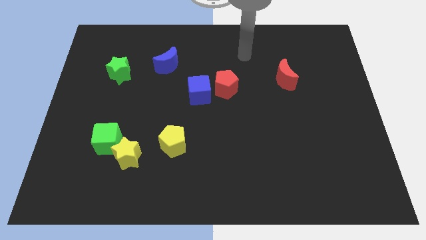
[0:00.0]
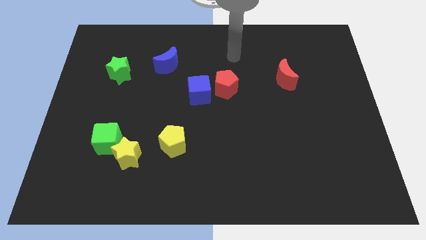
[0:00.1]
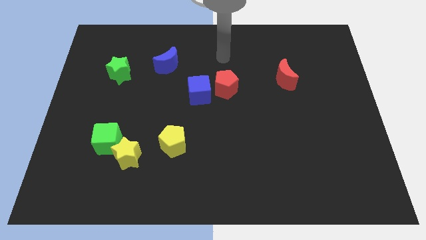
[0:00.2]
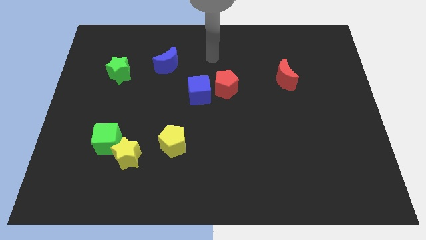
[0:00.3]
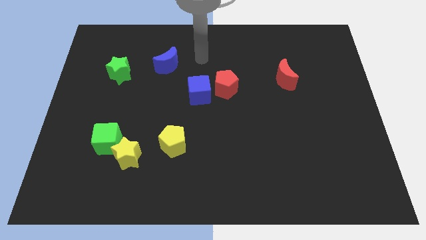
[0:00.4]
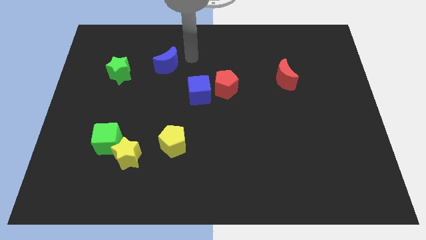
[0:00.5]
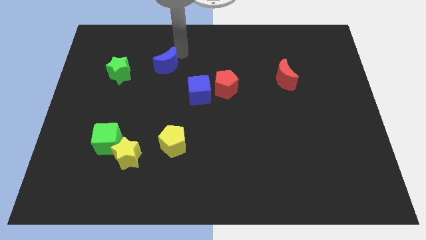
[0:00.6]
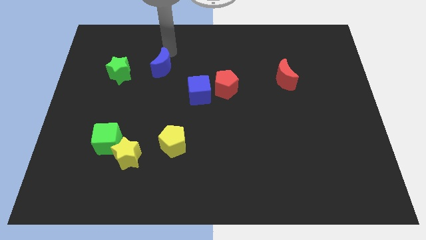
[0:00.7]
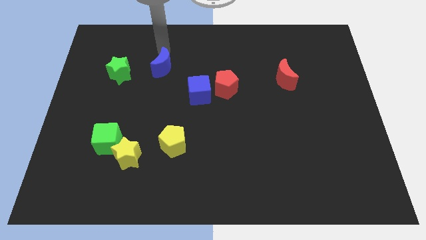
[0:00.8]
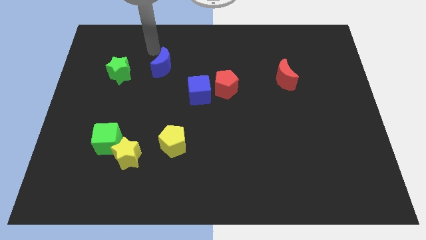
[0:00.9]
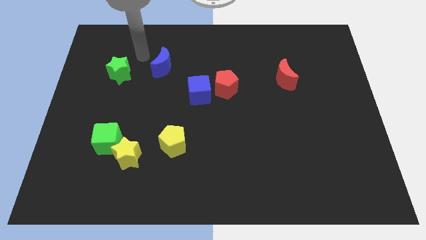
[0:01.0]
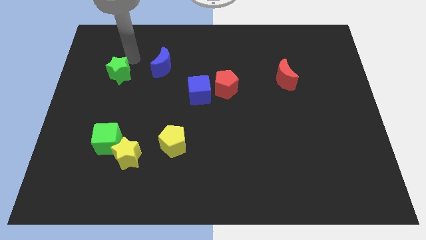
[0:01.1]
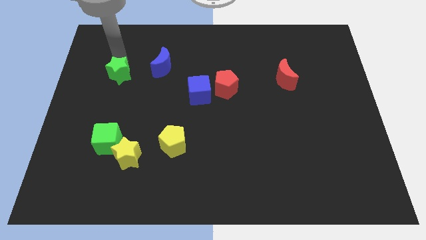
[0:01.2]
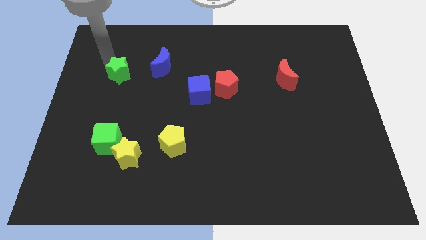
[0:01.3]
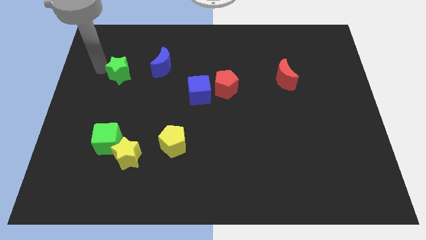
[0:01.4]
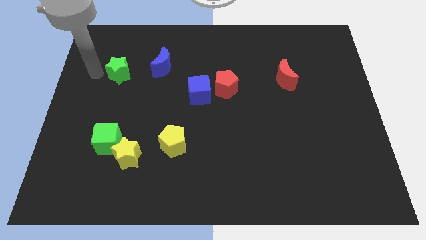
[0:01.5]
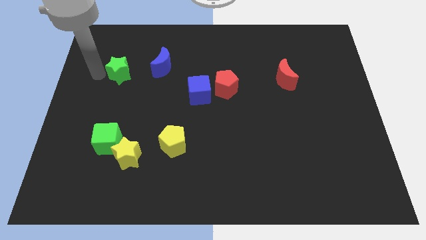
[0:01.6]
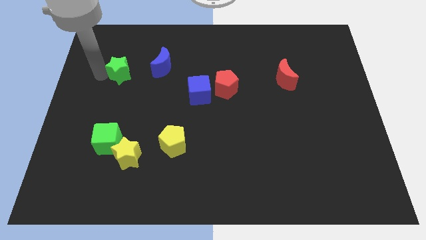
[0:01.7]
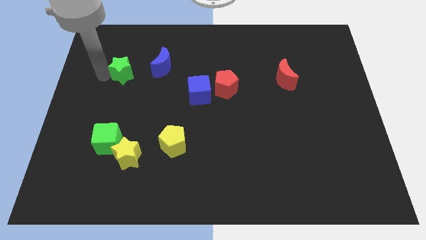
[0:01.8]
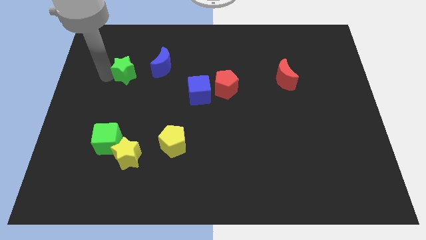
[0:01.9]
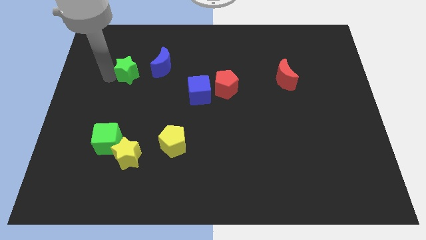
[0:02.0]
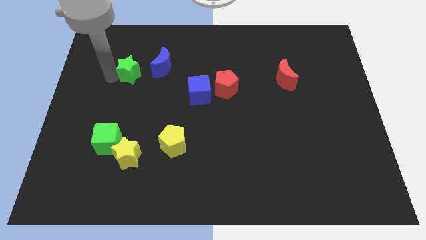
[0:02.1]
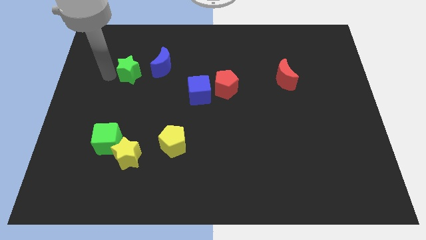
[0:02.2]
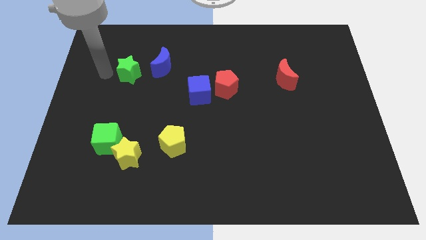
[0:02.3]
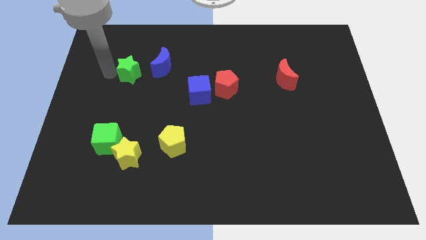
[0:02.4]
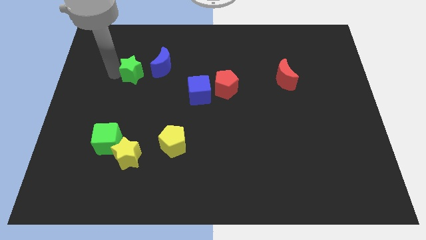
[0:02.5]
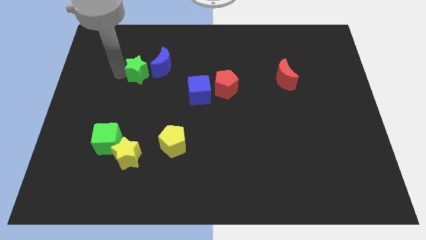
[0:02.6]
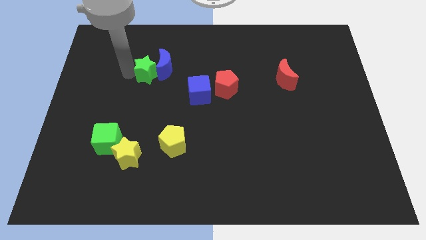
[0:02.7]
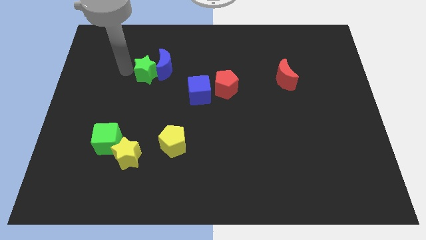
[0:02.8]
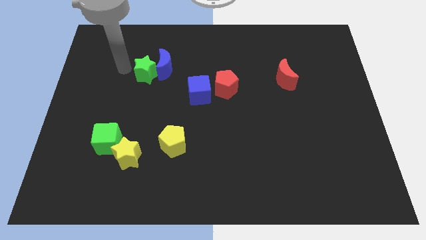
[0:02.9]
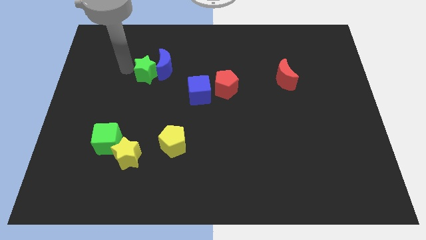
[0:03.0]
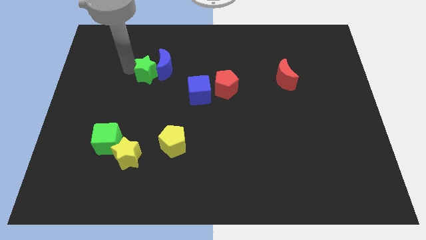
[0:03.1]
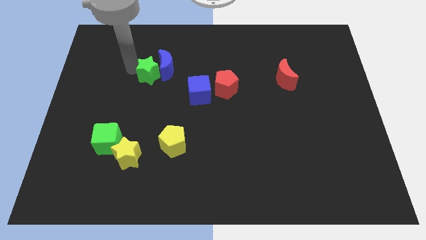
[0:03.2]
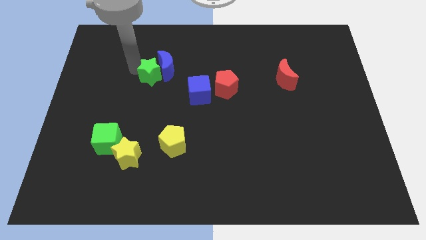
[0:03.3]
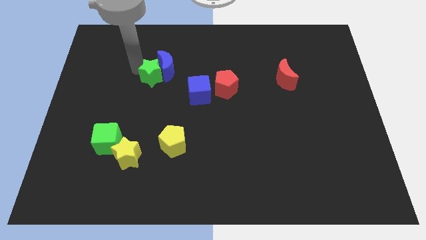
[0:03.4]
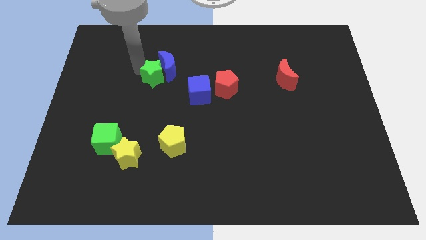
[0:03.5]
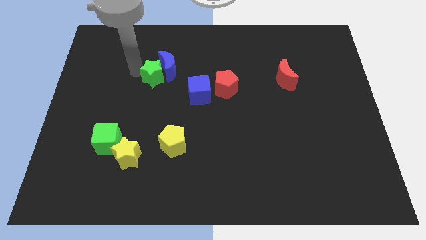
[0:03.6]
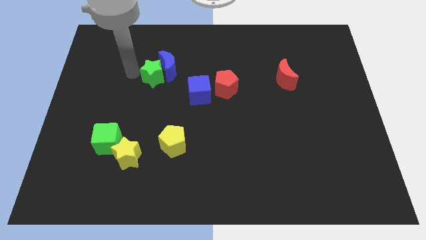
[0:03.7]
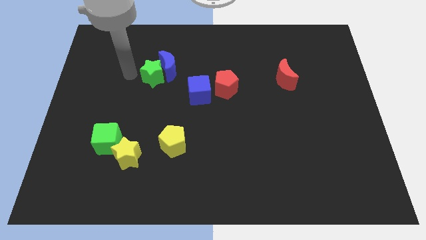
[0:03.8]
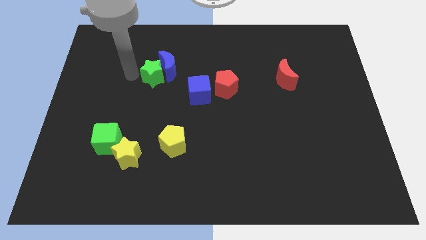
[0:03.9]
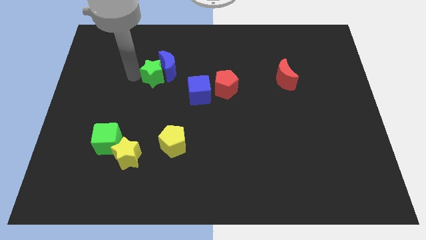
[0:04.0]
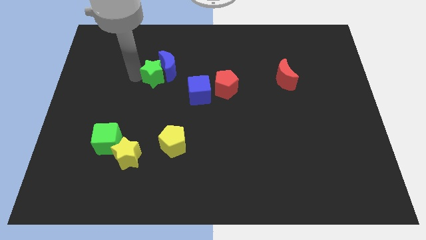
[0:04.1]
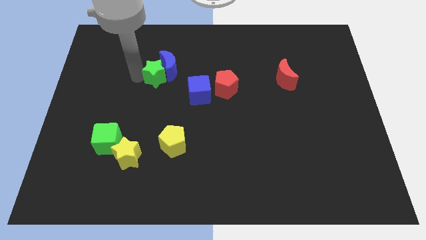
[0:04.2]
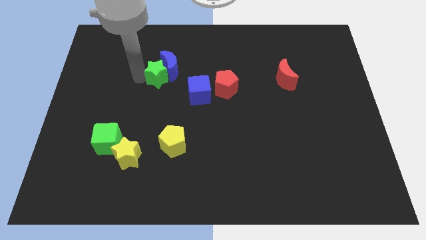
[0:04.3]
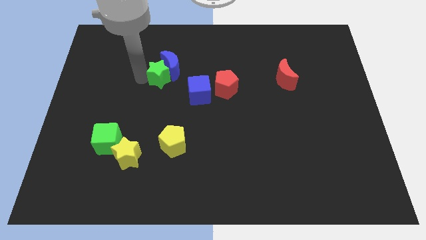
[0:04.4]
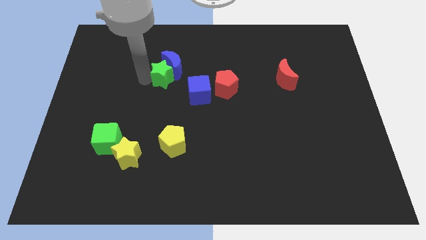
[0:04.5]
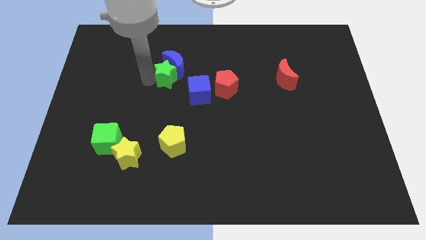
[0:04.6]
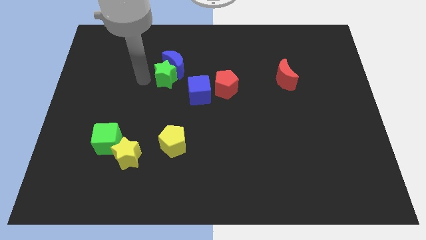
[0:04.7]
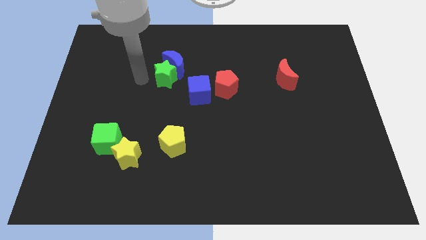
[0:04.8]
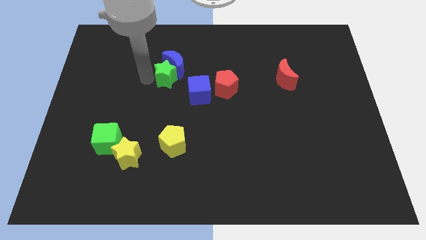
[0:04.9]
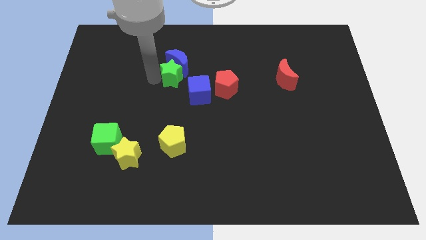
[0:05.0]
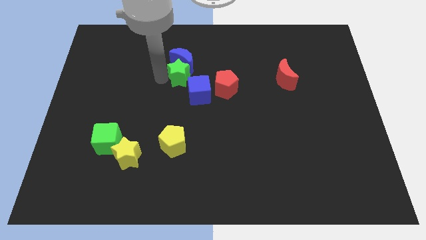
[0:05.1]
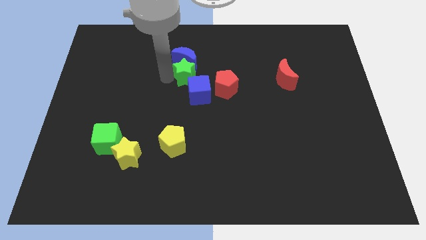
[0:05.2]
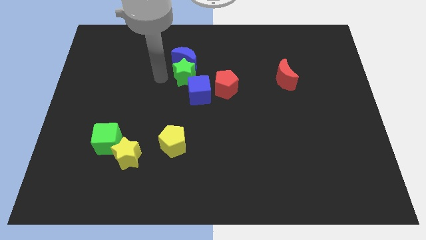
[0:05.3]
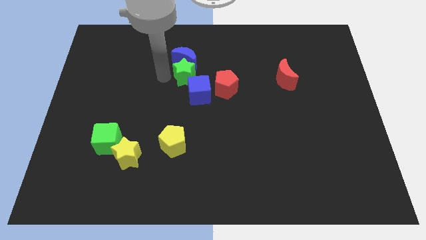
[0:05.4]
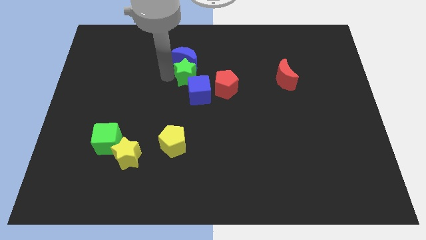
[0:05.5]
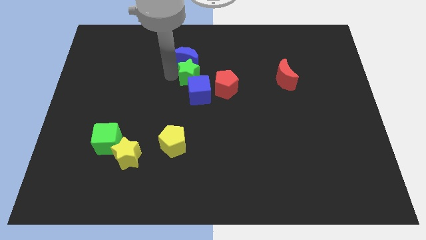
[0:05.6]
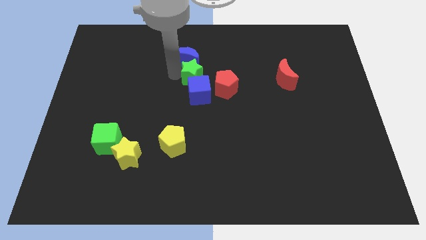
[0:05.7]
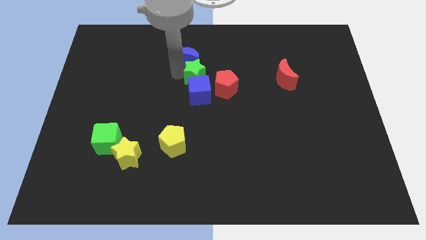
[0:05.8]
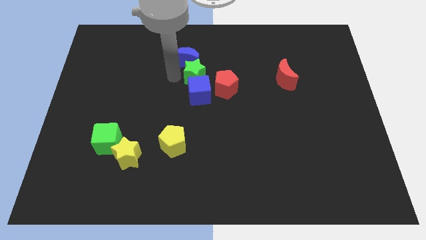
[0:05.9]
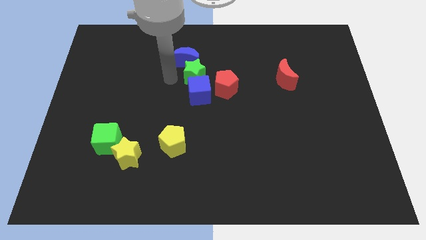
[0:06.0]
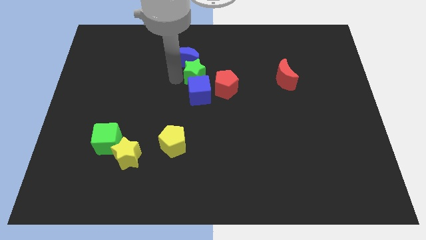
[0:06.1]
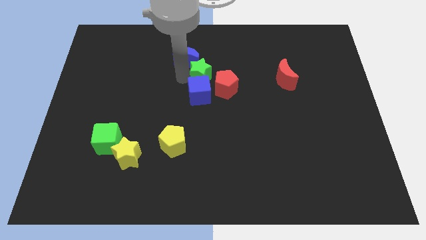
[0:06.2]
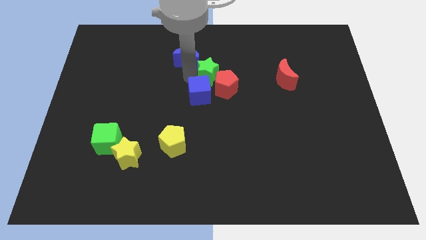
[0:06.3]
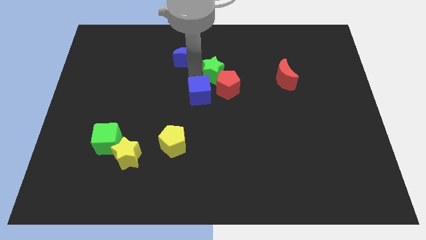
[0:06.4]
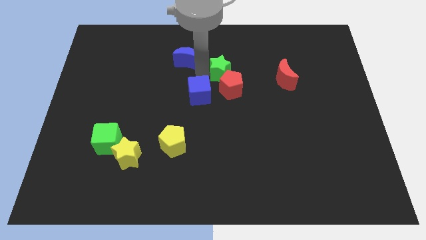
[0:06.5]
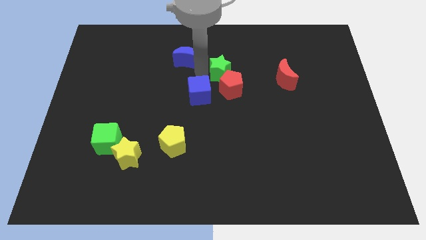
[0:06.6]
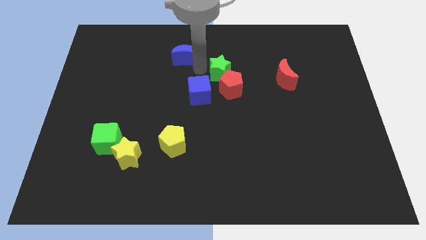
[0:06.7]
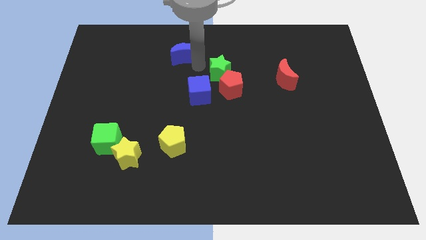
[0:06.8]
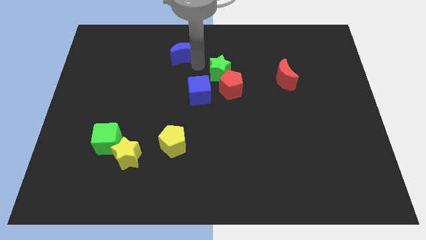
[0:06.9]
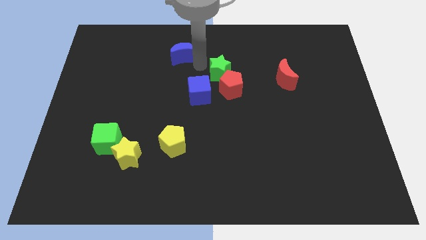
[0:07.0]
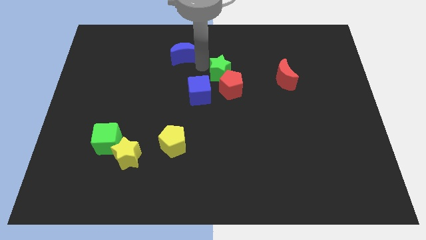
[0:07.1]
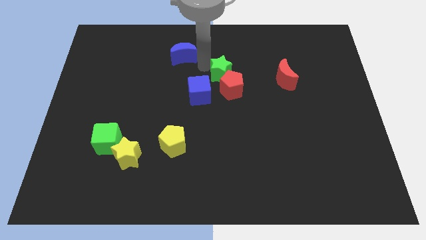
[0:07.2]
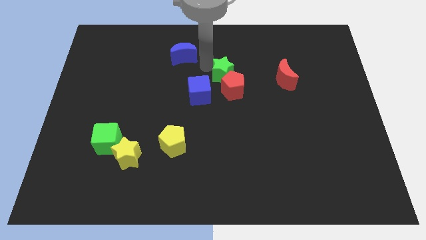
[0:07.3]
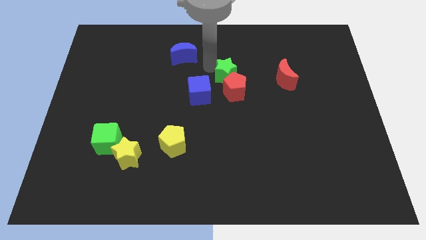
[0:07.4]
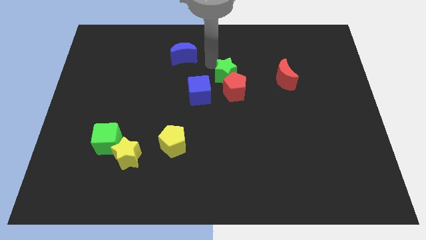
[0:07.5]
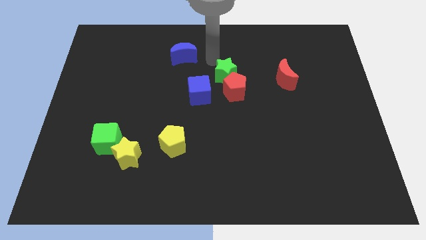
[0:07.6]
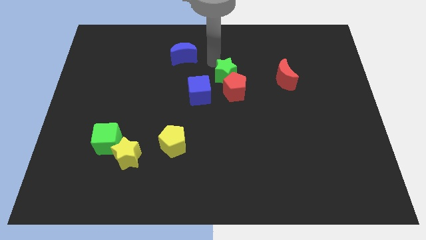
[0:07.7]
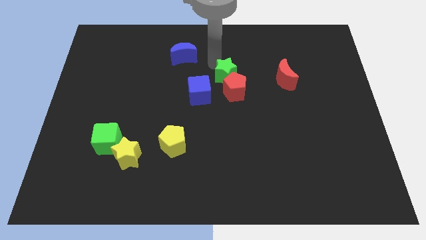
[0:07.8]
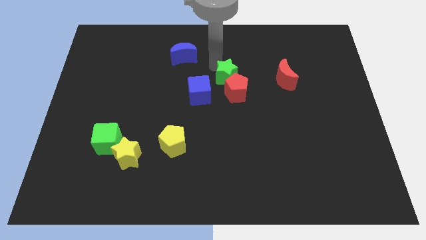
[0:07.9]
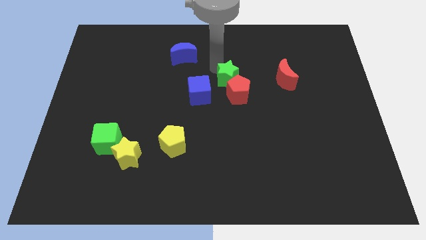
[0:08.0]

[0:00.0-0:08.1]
move the green star right of the blue cube
